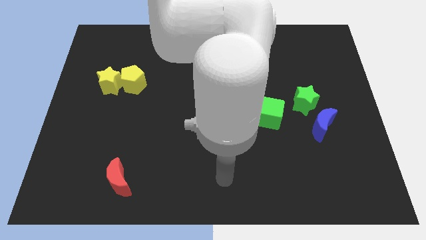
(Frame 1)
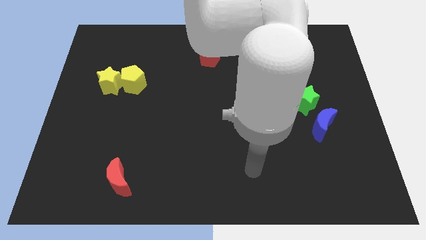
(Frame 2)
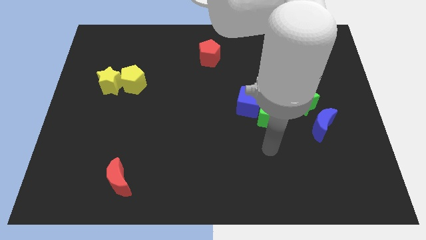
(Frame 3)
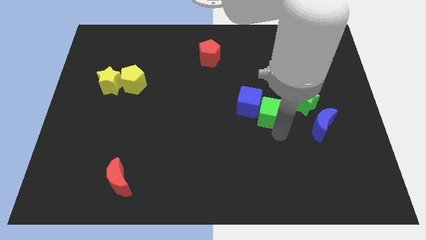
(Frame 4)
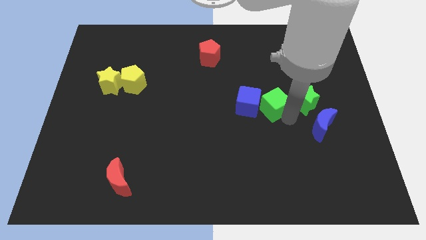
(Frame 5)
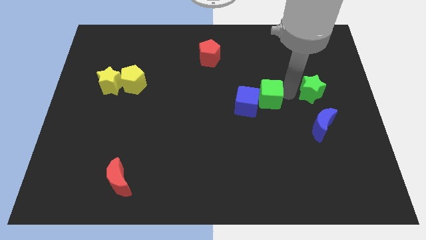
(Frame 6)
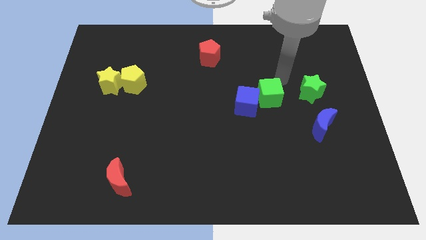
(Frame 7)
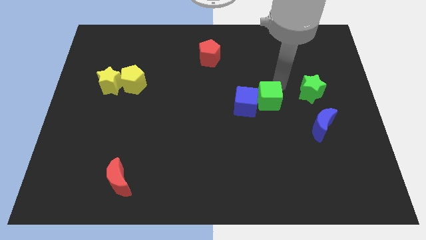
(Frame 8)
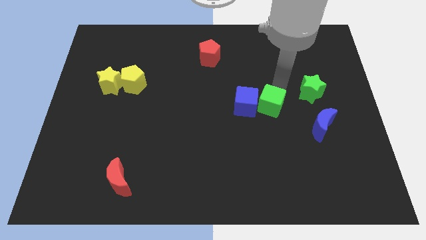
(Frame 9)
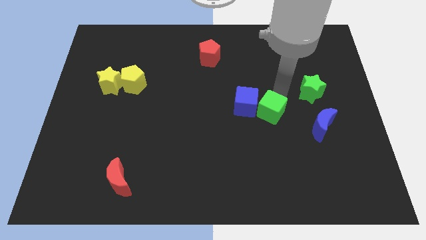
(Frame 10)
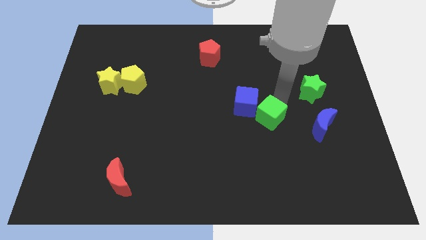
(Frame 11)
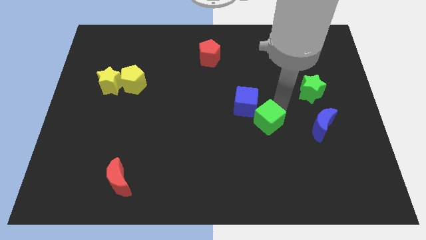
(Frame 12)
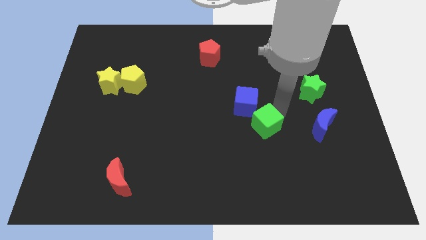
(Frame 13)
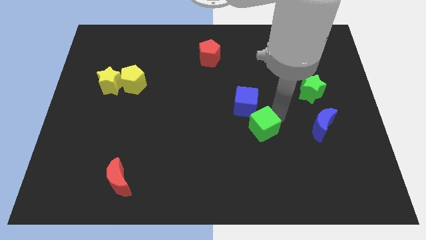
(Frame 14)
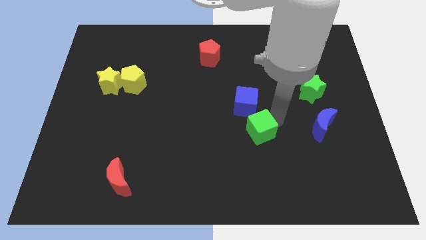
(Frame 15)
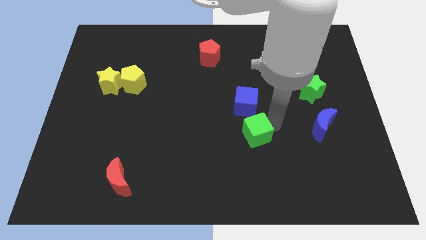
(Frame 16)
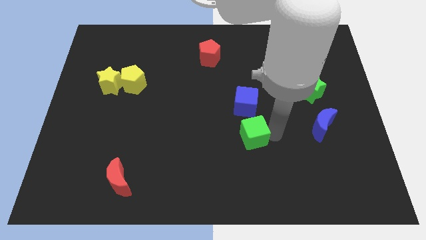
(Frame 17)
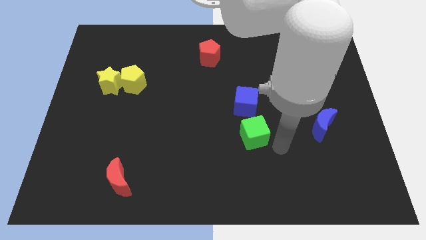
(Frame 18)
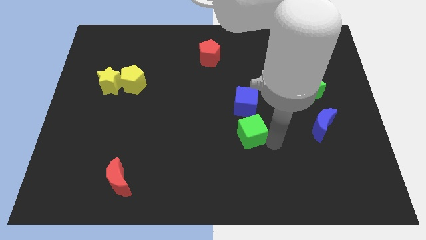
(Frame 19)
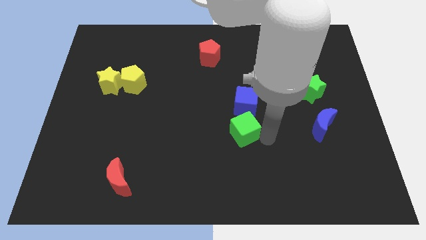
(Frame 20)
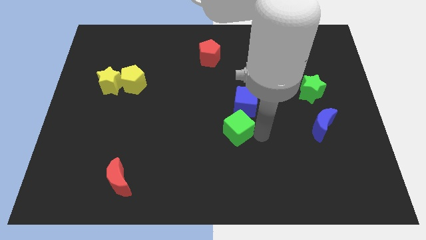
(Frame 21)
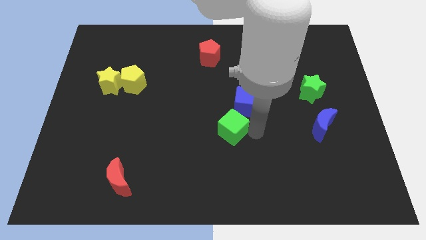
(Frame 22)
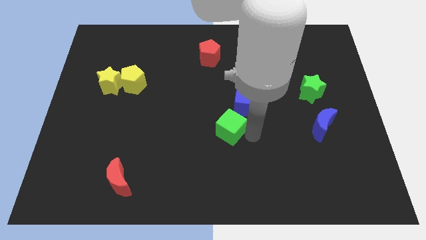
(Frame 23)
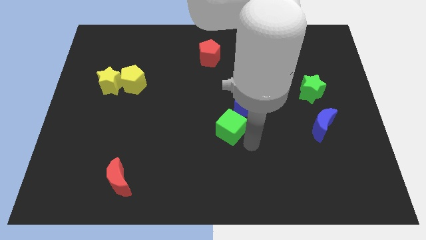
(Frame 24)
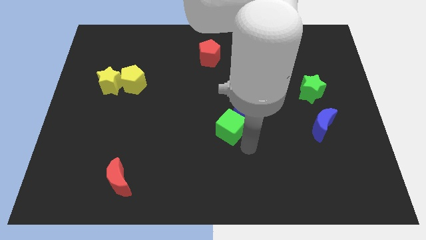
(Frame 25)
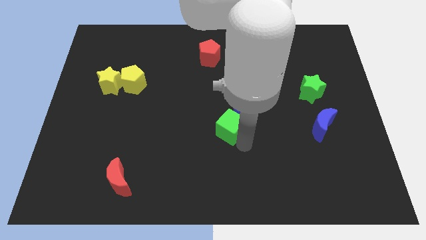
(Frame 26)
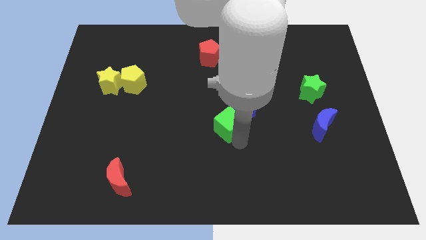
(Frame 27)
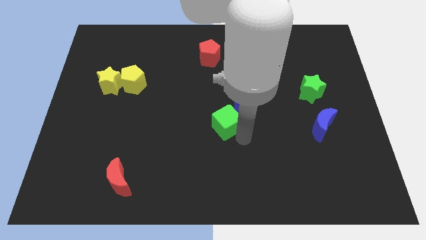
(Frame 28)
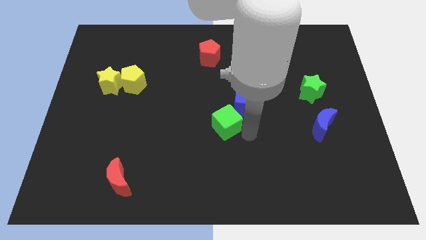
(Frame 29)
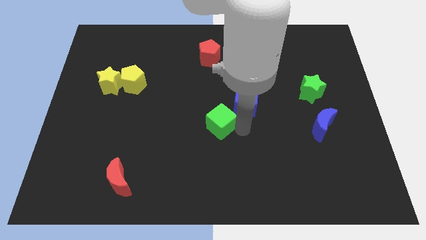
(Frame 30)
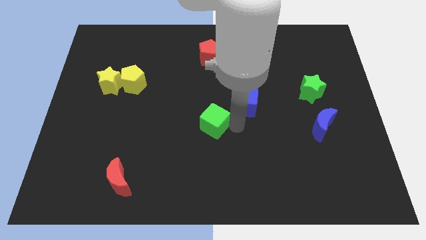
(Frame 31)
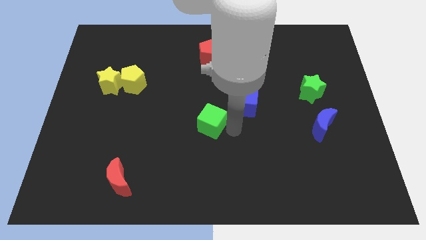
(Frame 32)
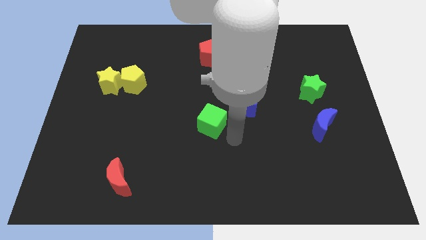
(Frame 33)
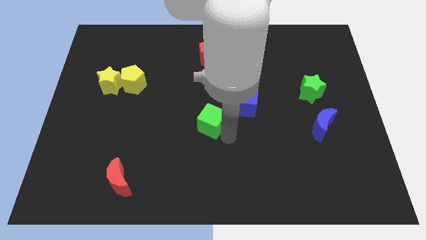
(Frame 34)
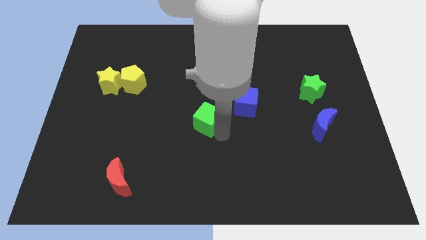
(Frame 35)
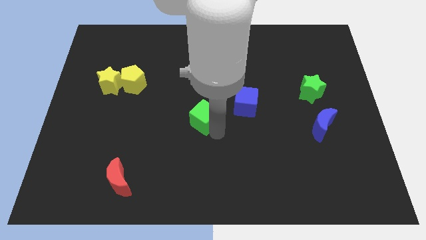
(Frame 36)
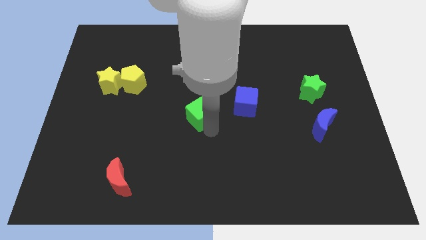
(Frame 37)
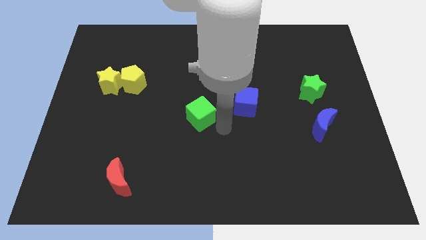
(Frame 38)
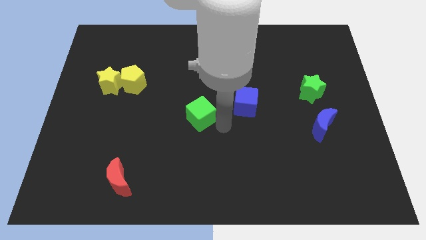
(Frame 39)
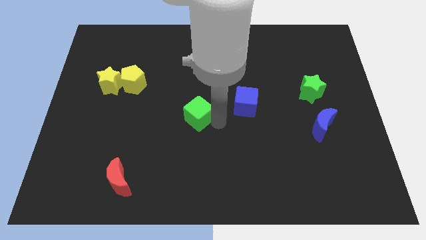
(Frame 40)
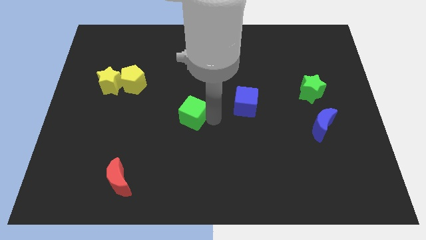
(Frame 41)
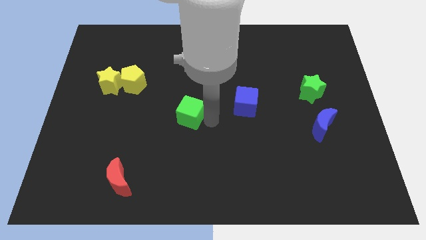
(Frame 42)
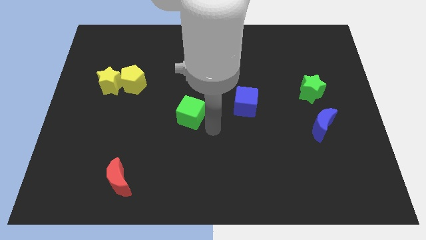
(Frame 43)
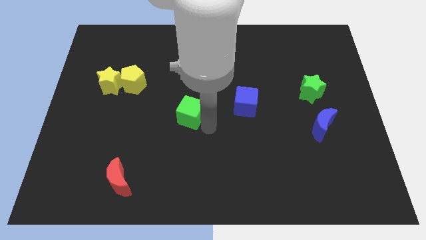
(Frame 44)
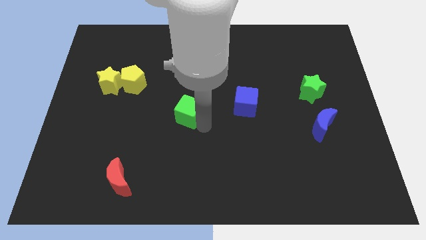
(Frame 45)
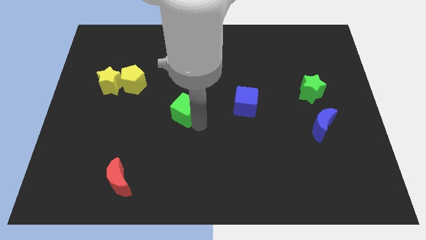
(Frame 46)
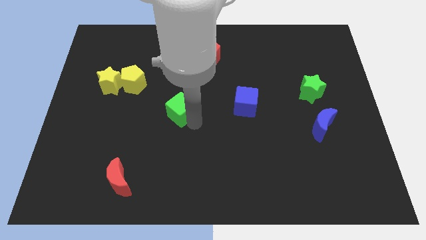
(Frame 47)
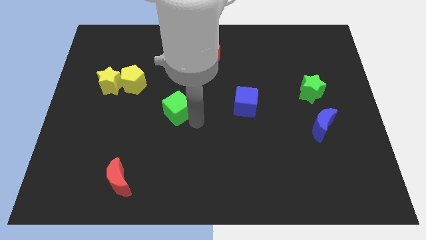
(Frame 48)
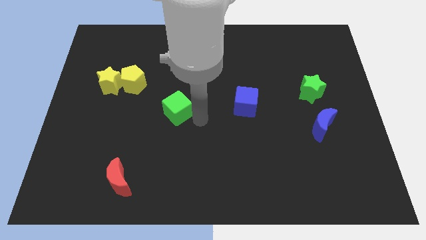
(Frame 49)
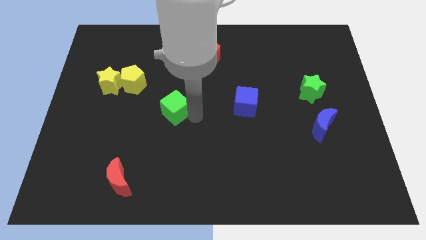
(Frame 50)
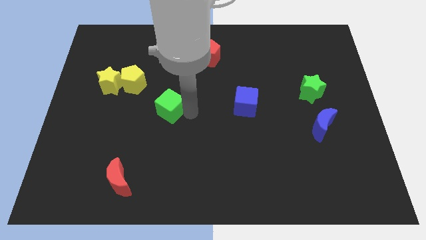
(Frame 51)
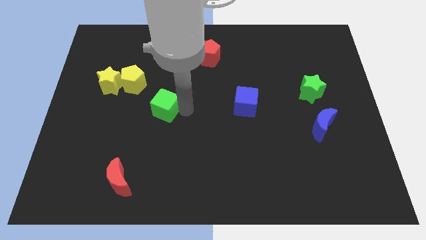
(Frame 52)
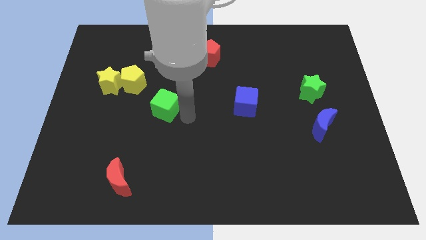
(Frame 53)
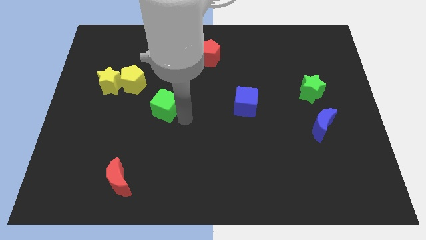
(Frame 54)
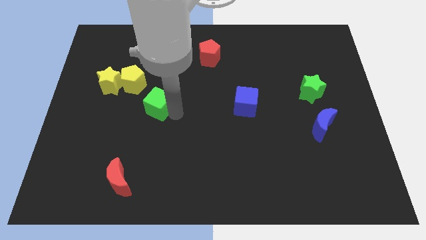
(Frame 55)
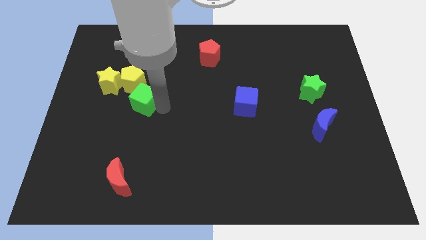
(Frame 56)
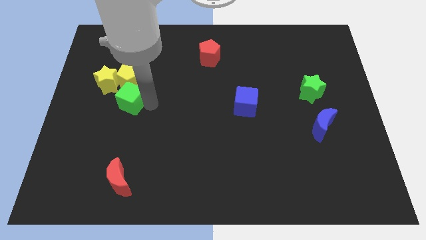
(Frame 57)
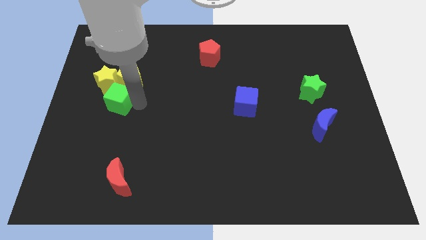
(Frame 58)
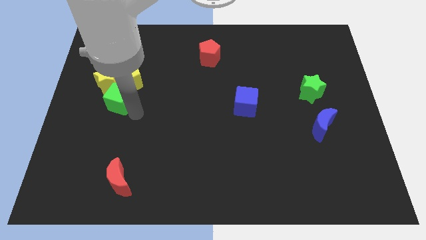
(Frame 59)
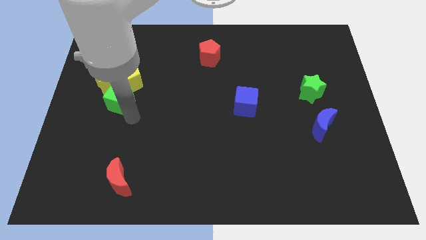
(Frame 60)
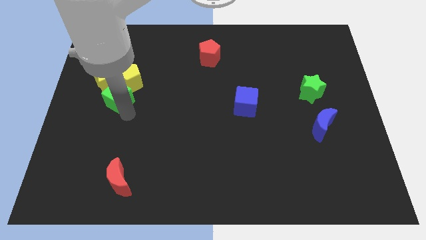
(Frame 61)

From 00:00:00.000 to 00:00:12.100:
push the green cube close to the yellow star

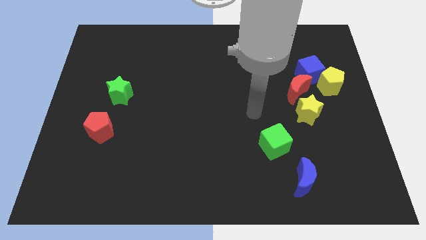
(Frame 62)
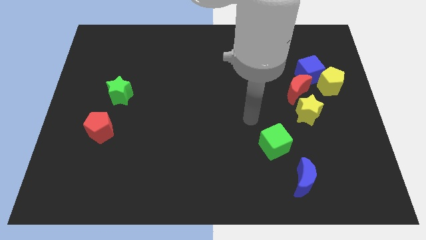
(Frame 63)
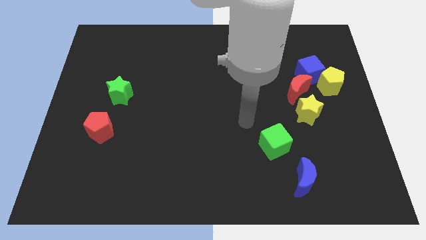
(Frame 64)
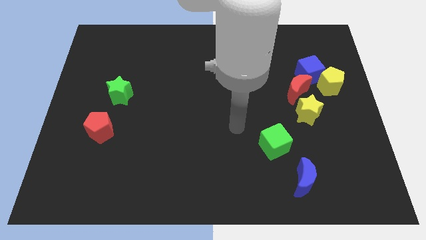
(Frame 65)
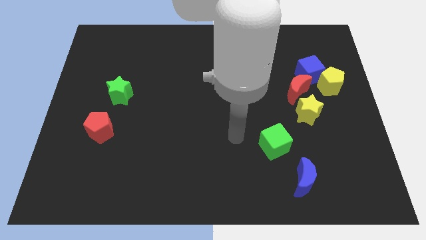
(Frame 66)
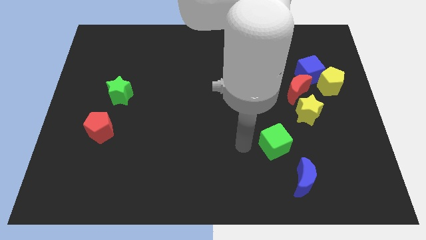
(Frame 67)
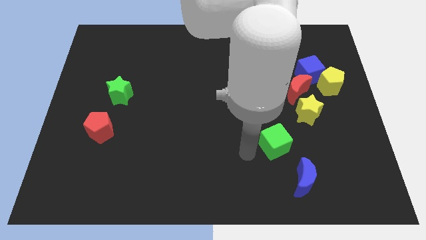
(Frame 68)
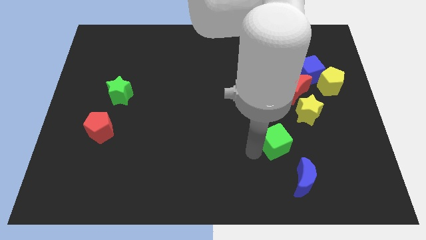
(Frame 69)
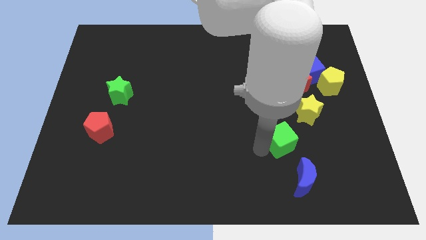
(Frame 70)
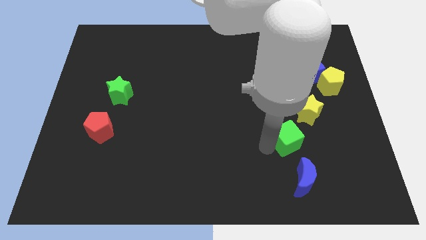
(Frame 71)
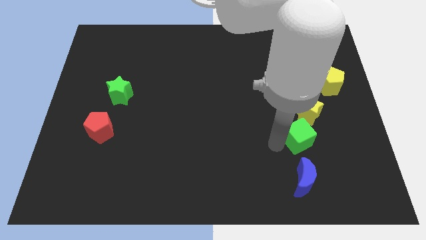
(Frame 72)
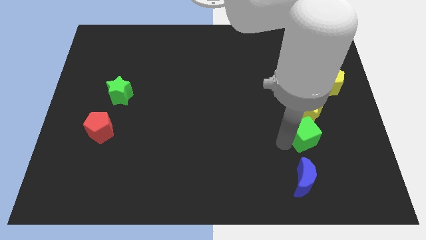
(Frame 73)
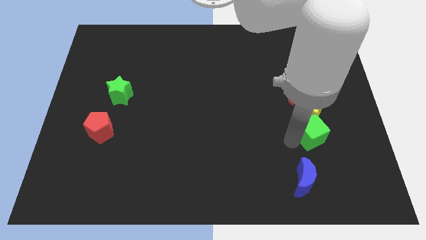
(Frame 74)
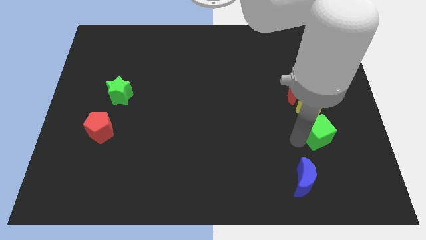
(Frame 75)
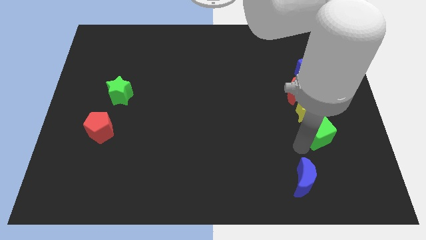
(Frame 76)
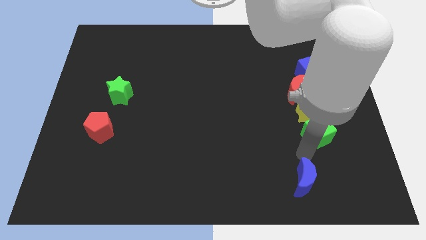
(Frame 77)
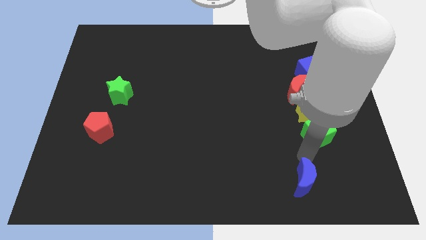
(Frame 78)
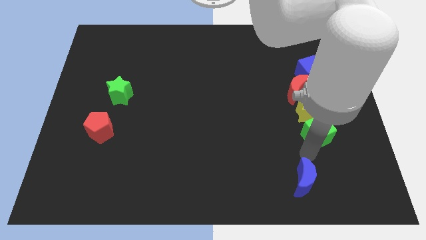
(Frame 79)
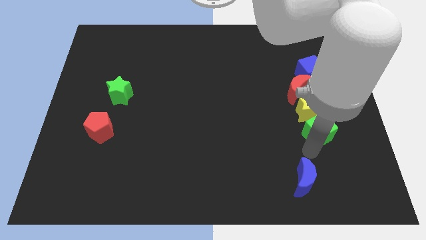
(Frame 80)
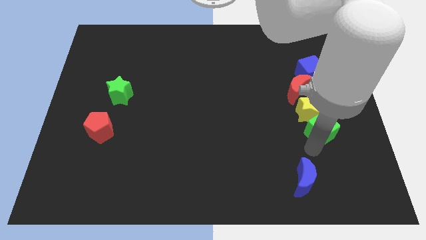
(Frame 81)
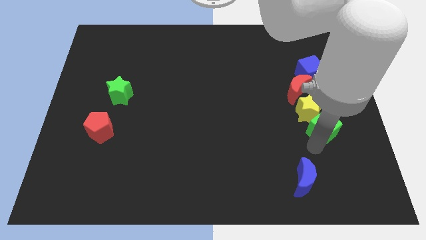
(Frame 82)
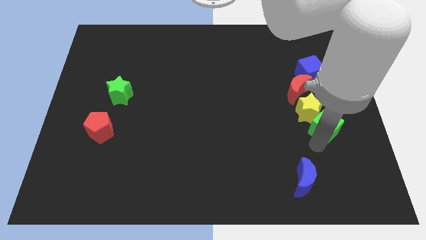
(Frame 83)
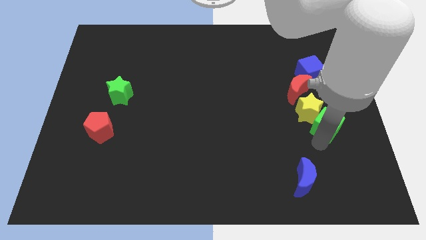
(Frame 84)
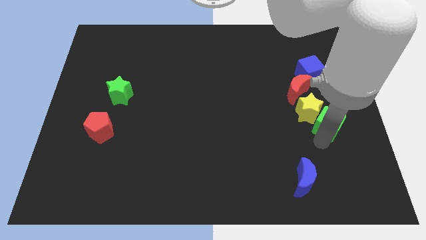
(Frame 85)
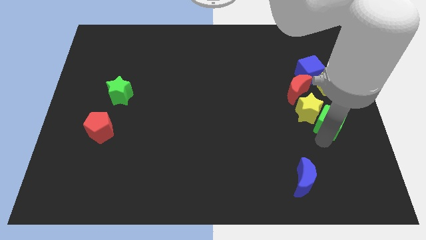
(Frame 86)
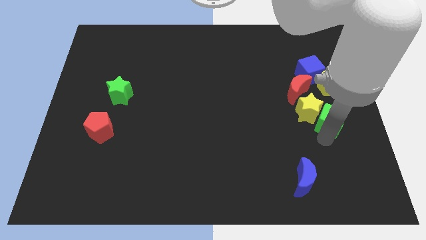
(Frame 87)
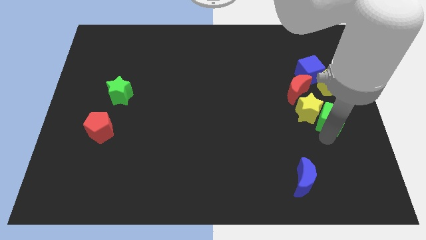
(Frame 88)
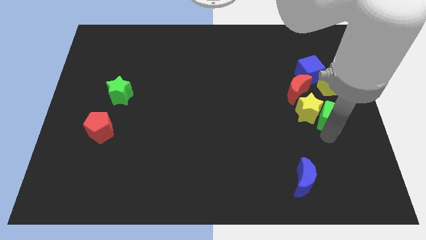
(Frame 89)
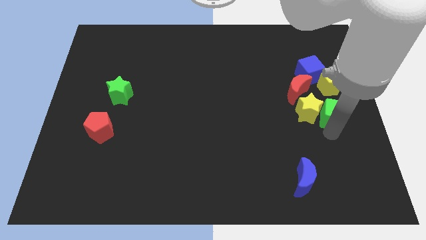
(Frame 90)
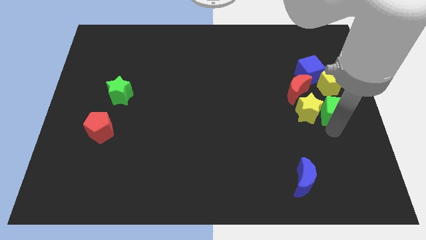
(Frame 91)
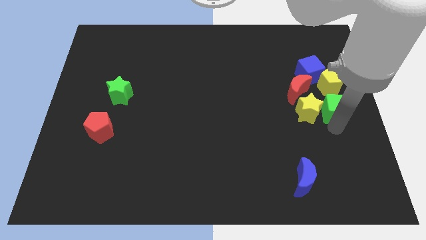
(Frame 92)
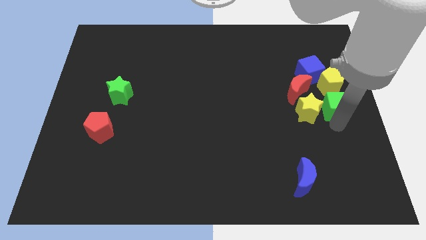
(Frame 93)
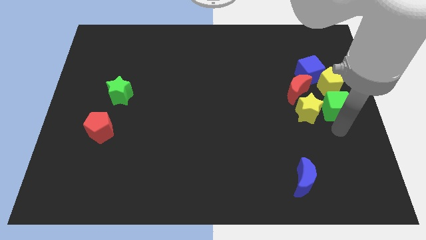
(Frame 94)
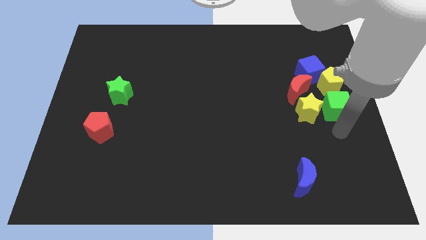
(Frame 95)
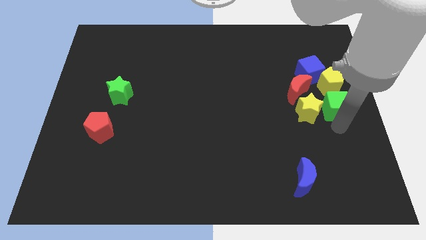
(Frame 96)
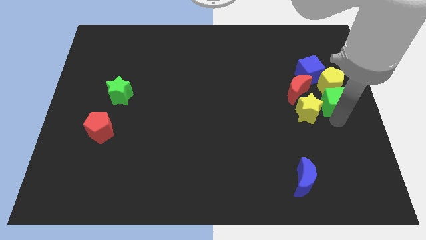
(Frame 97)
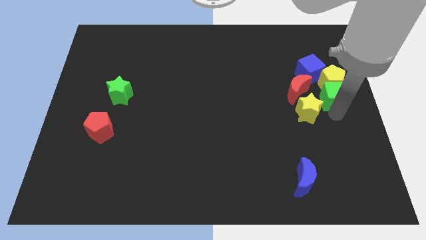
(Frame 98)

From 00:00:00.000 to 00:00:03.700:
slide the green cube next to the yellow pentagon
